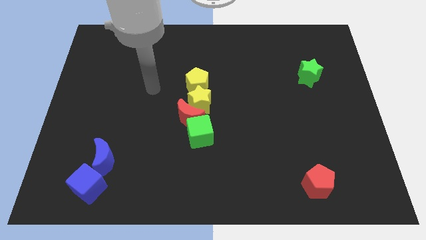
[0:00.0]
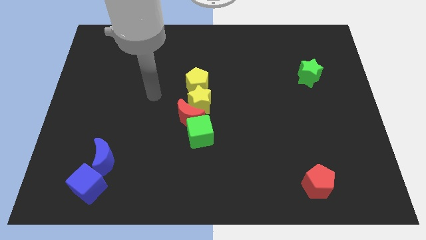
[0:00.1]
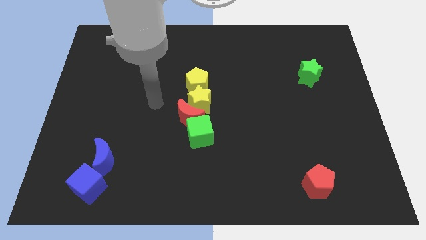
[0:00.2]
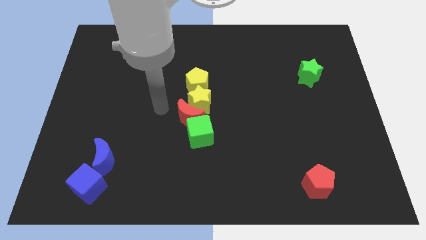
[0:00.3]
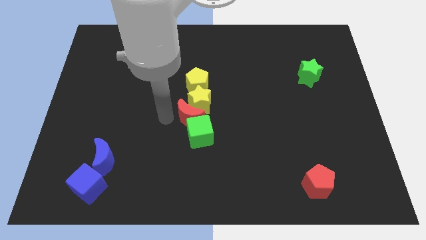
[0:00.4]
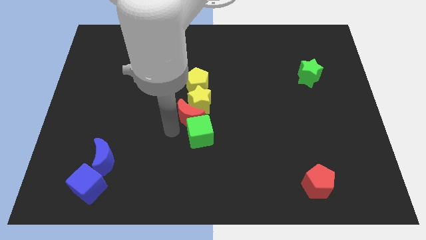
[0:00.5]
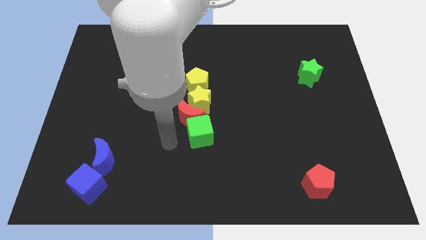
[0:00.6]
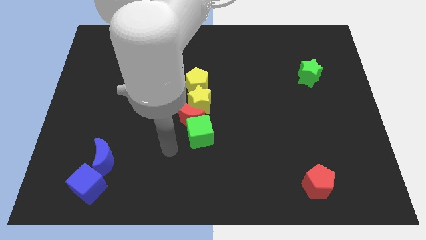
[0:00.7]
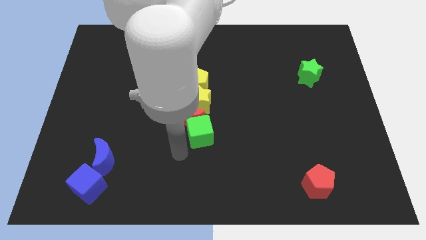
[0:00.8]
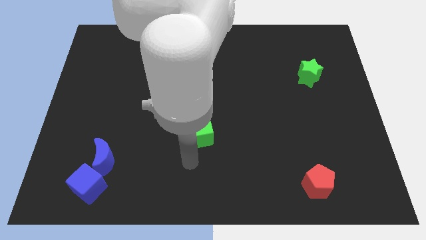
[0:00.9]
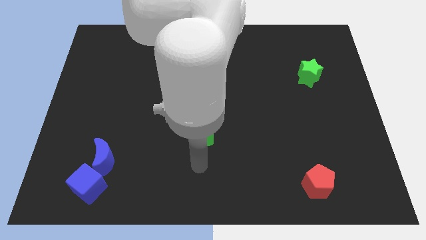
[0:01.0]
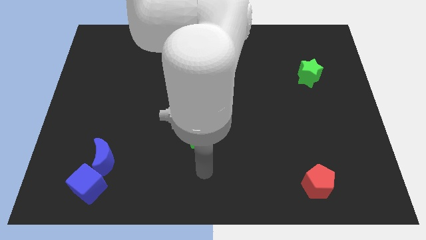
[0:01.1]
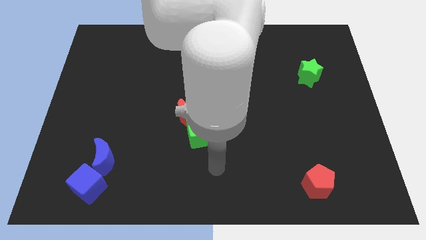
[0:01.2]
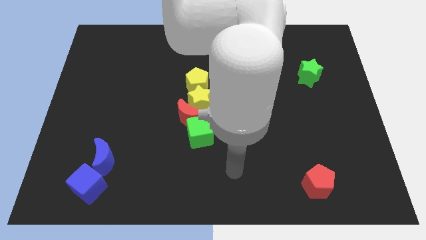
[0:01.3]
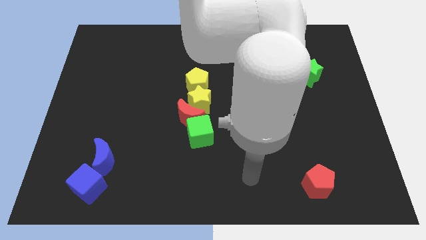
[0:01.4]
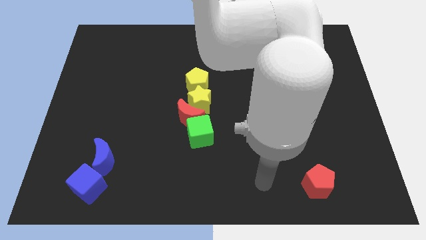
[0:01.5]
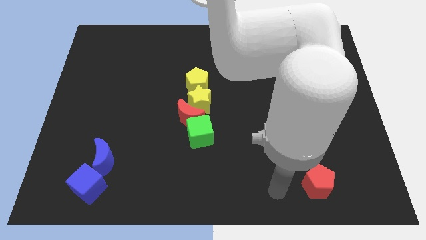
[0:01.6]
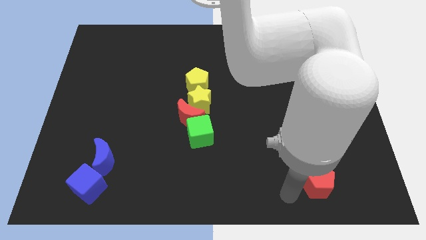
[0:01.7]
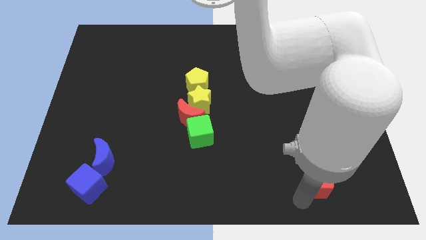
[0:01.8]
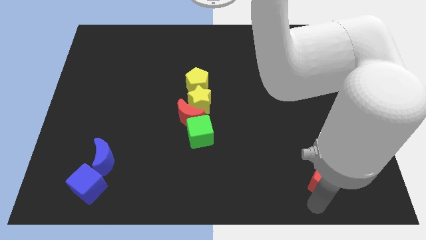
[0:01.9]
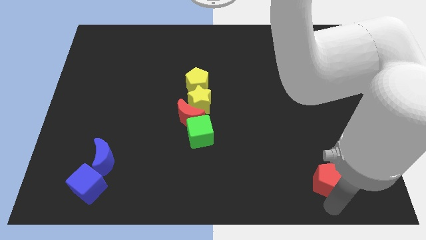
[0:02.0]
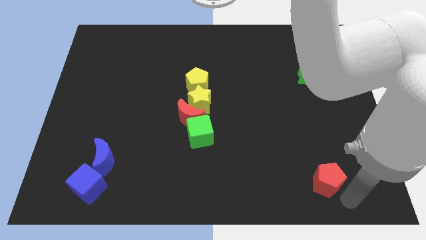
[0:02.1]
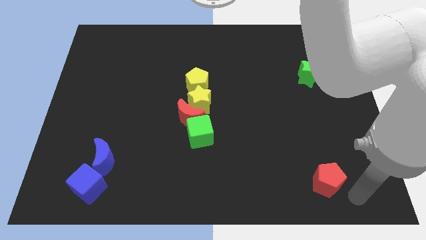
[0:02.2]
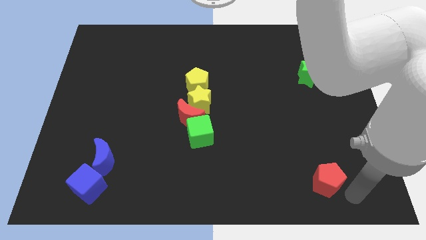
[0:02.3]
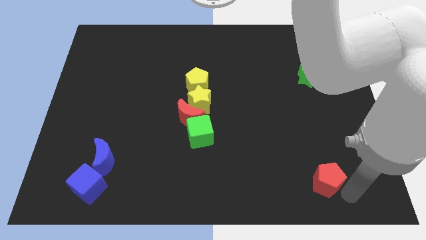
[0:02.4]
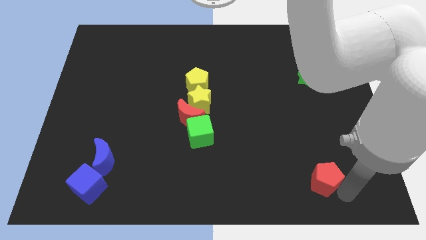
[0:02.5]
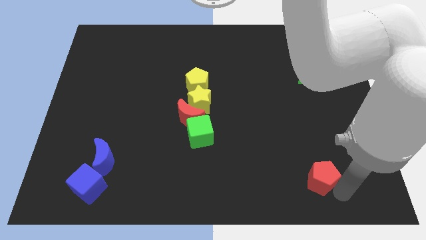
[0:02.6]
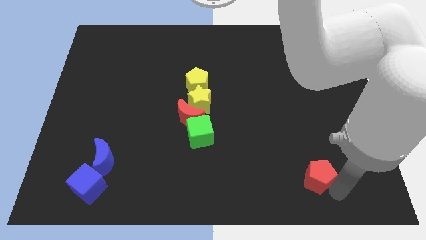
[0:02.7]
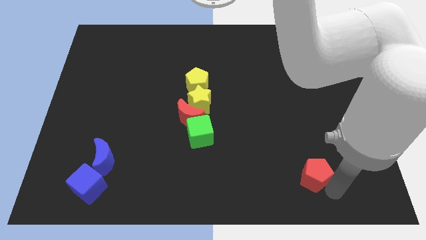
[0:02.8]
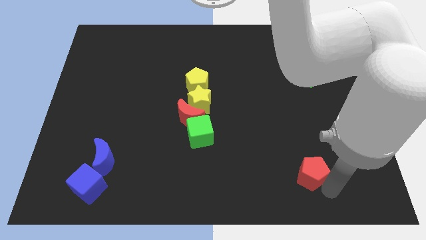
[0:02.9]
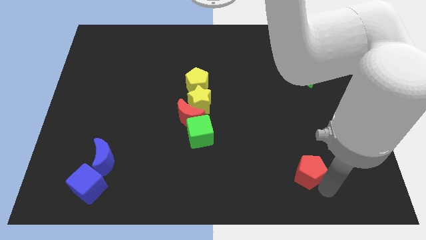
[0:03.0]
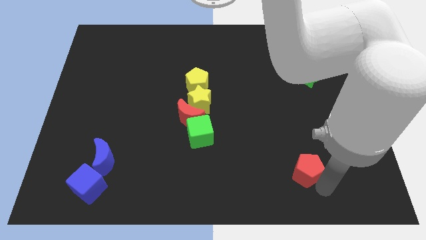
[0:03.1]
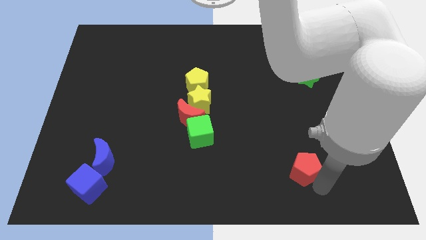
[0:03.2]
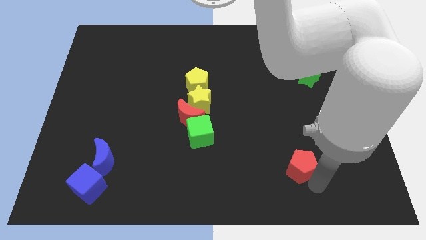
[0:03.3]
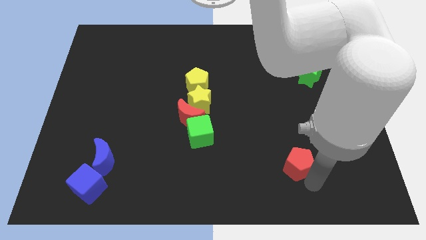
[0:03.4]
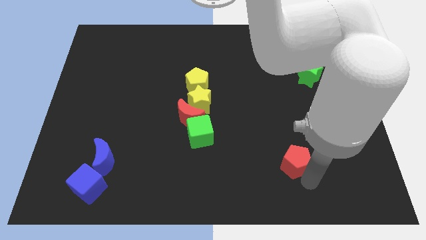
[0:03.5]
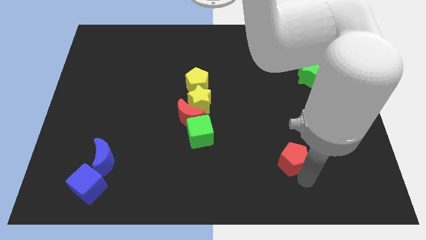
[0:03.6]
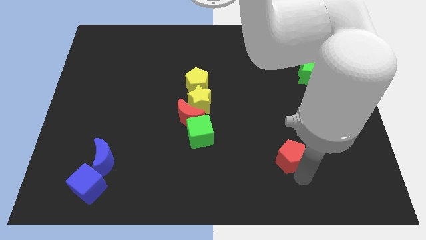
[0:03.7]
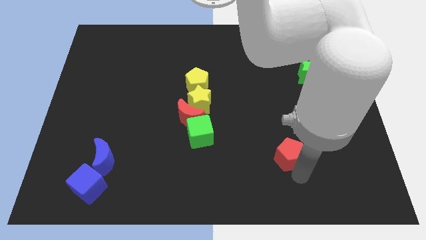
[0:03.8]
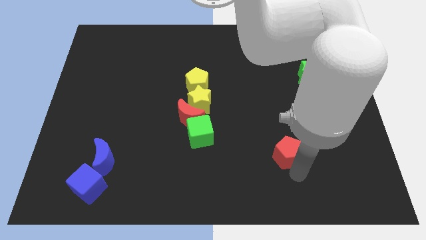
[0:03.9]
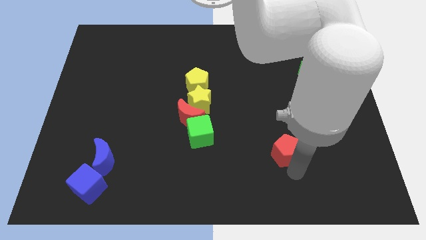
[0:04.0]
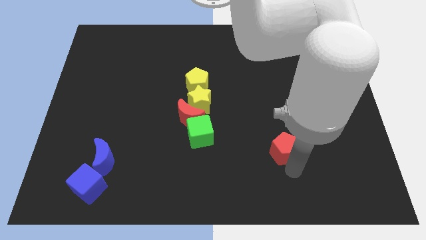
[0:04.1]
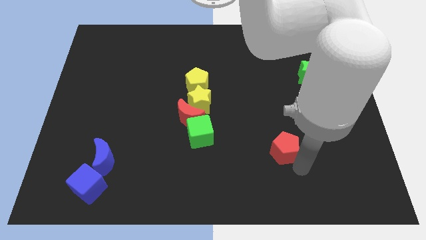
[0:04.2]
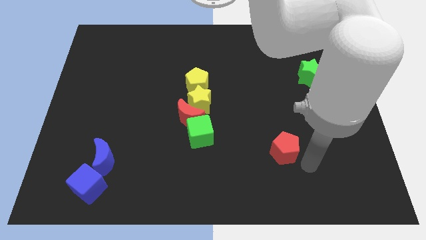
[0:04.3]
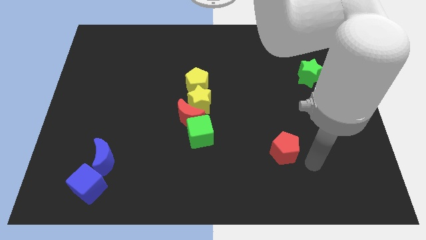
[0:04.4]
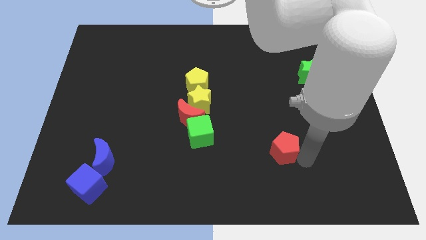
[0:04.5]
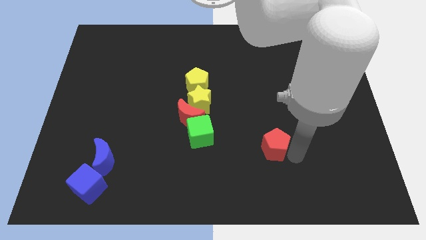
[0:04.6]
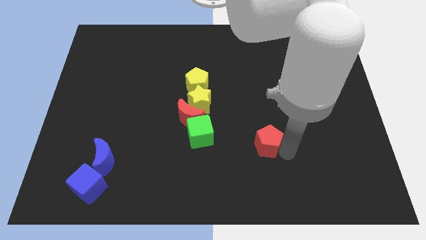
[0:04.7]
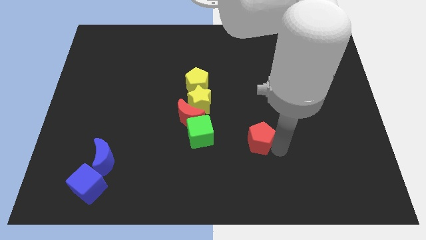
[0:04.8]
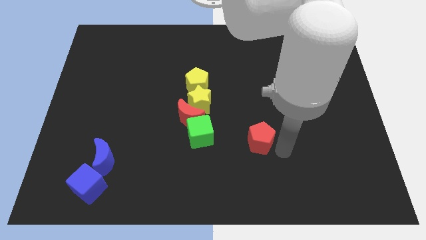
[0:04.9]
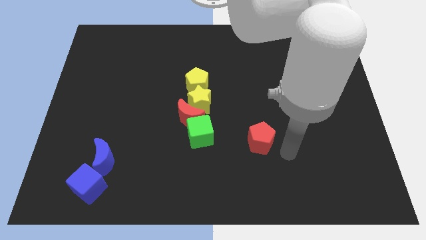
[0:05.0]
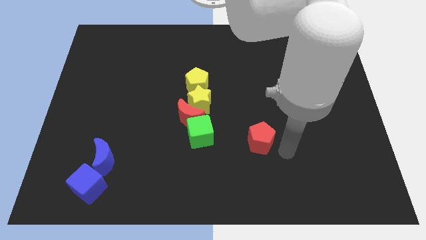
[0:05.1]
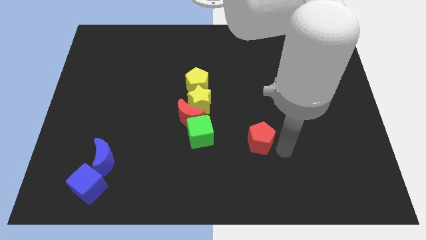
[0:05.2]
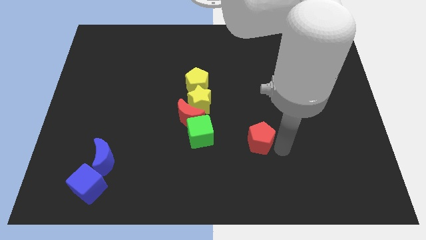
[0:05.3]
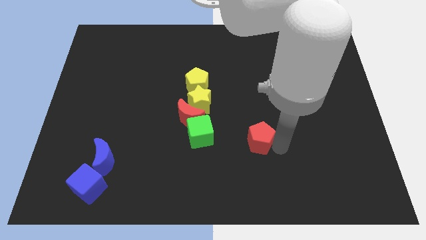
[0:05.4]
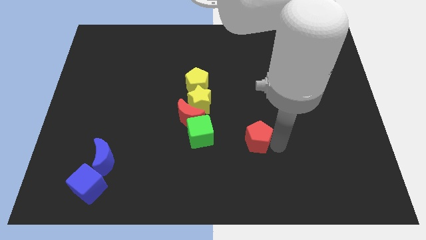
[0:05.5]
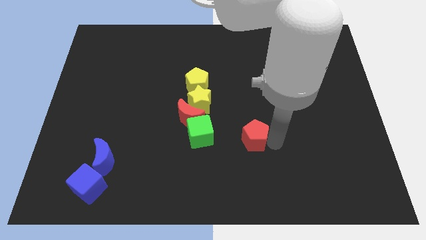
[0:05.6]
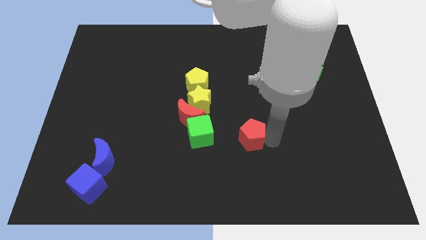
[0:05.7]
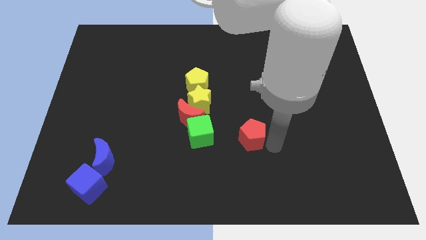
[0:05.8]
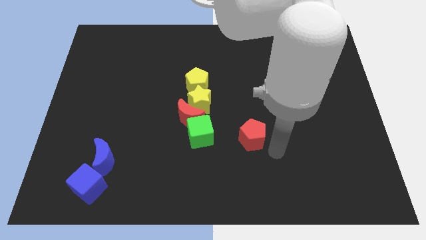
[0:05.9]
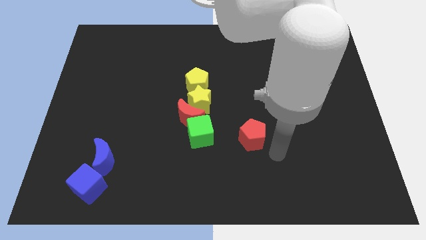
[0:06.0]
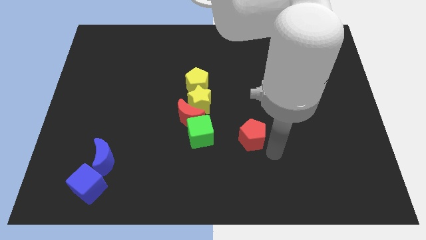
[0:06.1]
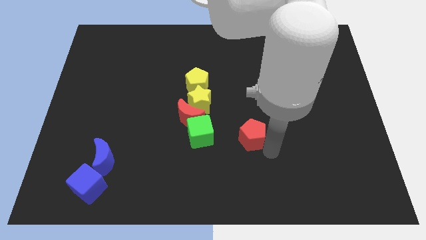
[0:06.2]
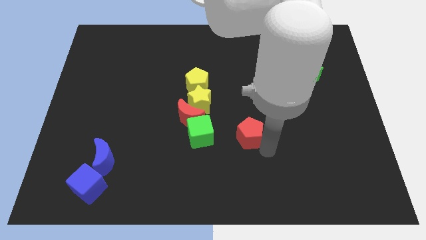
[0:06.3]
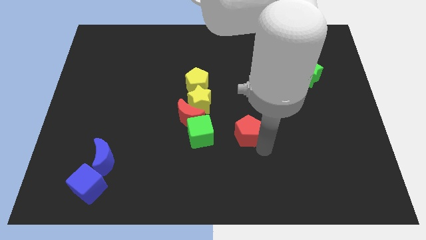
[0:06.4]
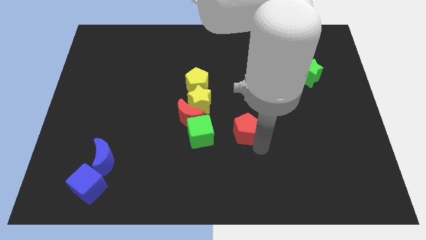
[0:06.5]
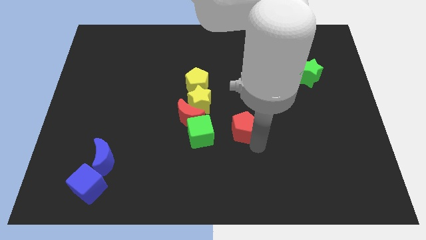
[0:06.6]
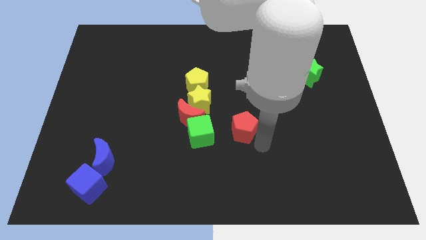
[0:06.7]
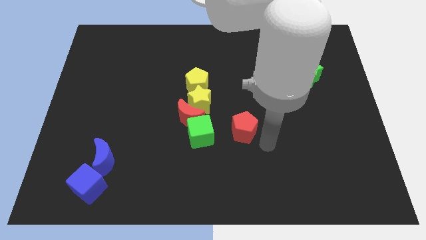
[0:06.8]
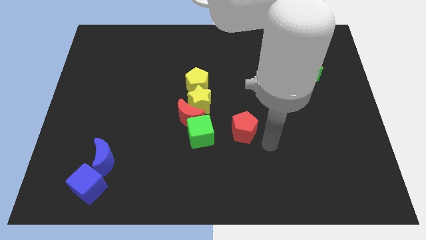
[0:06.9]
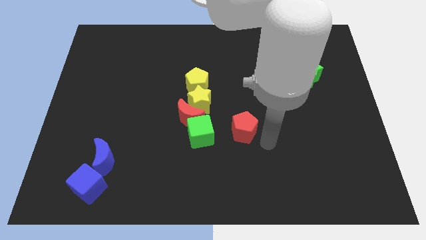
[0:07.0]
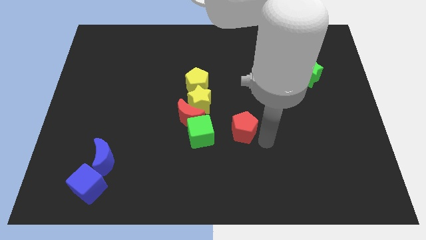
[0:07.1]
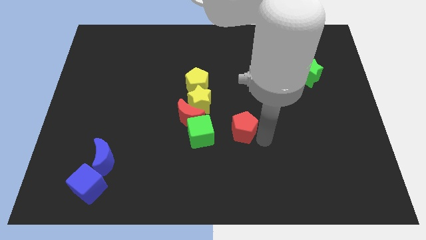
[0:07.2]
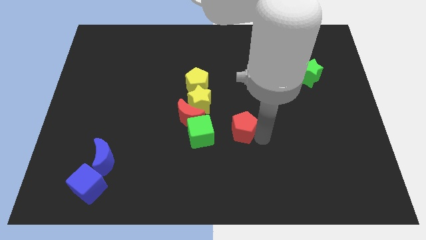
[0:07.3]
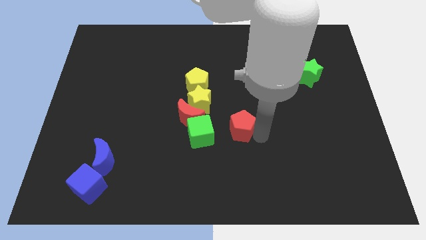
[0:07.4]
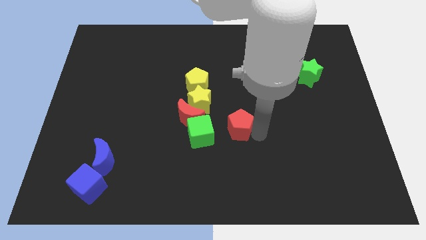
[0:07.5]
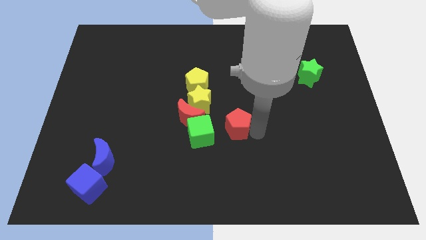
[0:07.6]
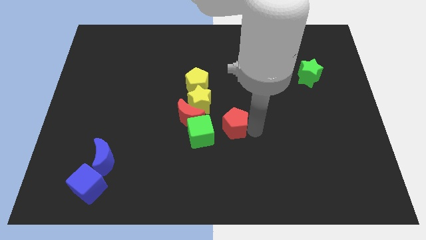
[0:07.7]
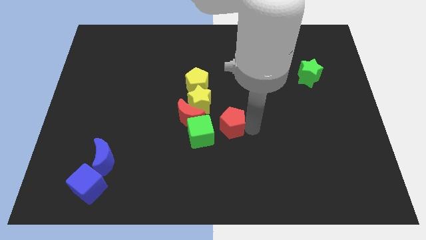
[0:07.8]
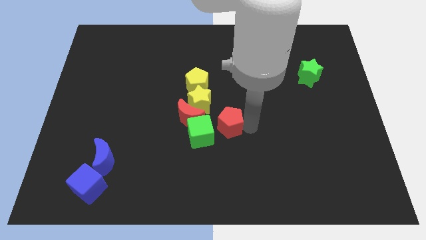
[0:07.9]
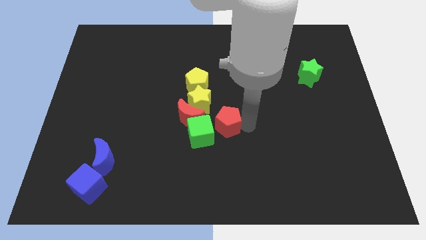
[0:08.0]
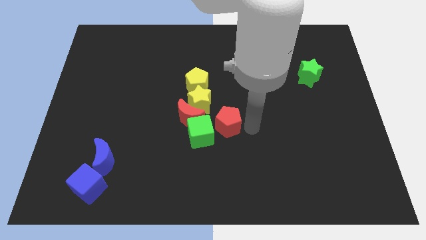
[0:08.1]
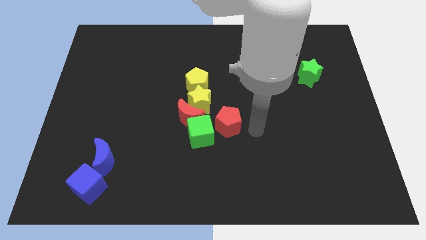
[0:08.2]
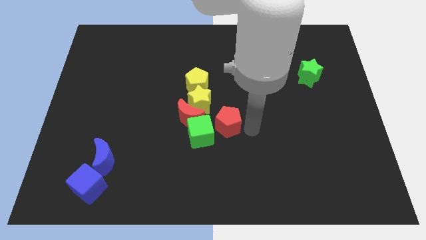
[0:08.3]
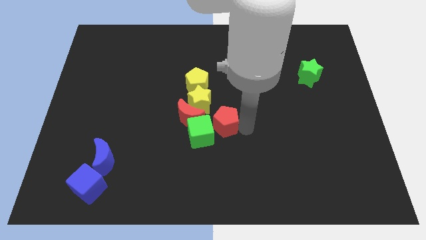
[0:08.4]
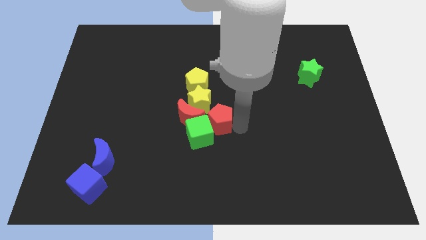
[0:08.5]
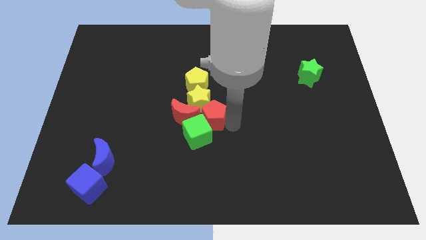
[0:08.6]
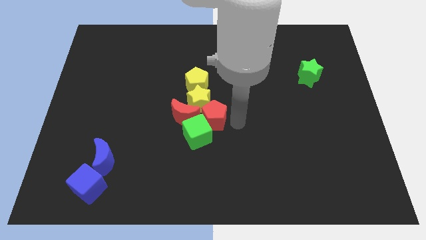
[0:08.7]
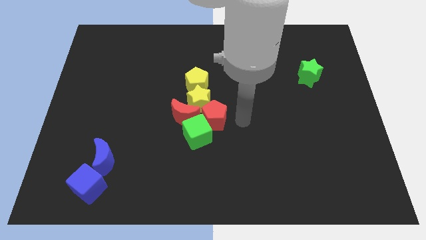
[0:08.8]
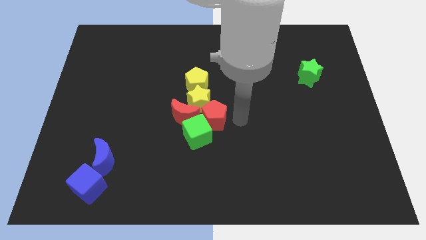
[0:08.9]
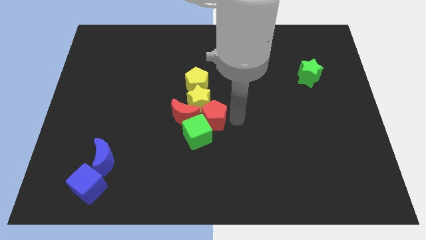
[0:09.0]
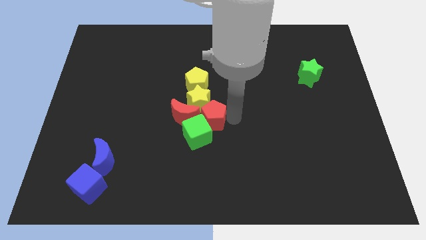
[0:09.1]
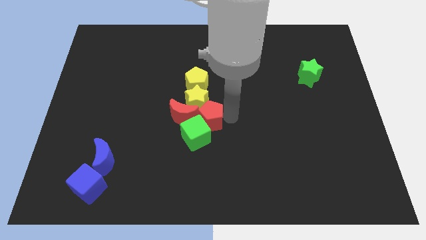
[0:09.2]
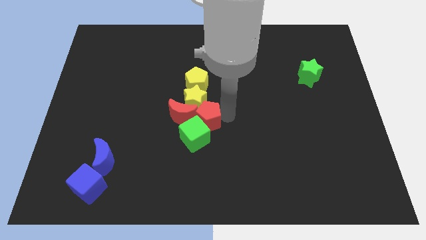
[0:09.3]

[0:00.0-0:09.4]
put the red pentagon to the red moon
